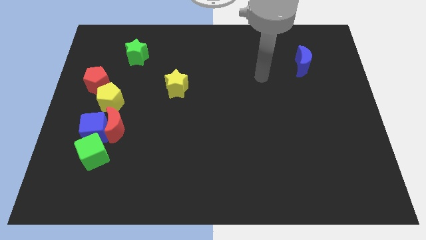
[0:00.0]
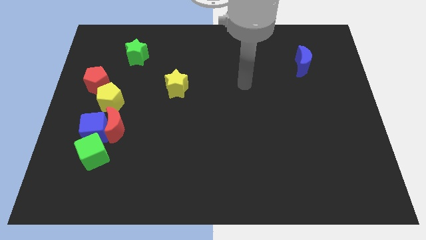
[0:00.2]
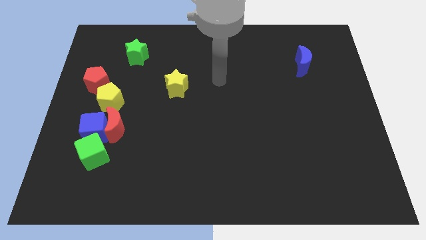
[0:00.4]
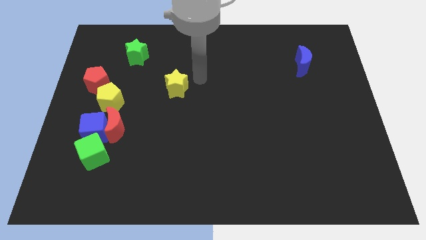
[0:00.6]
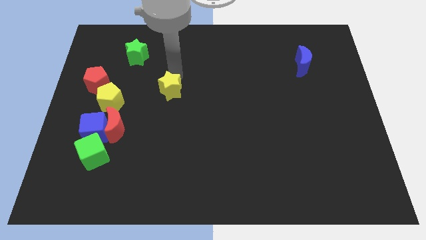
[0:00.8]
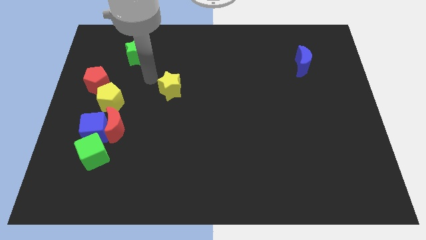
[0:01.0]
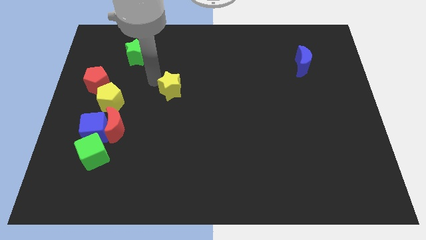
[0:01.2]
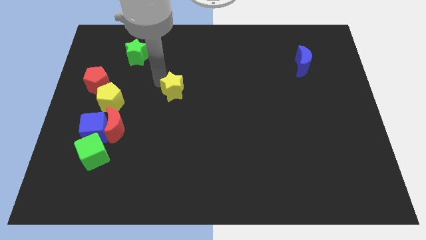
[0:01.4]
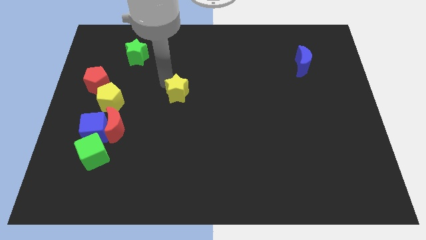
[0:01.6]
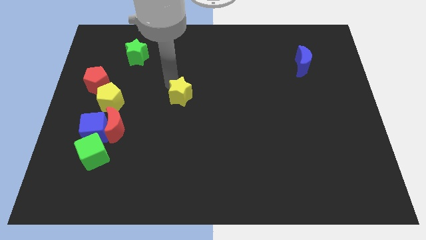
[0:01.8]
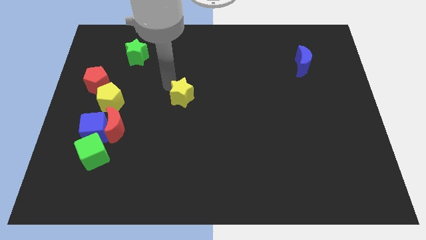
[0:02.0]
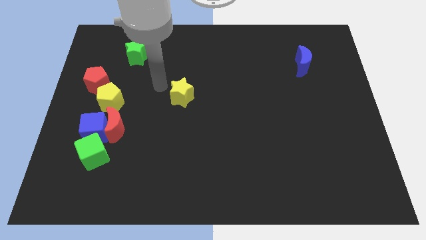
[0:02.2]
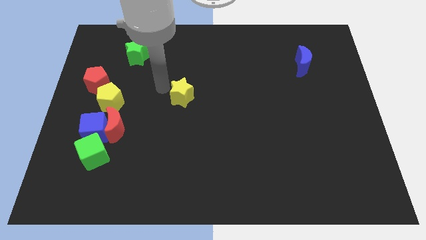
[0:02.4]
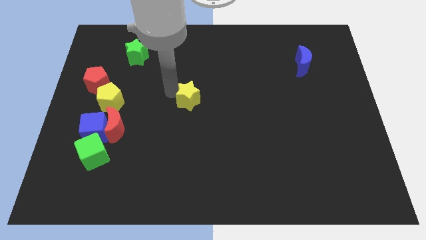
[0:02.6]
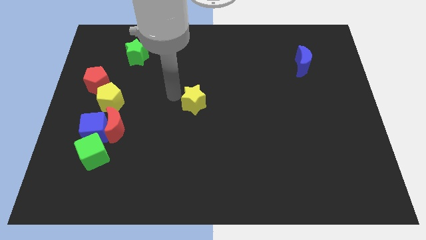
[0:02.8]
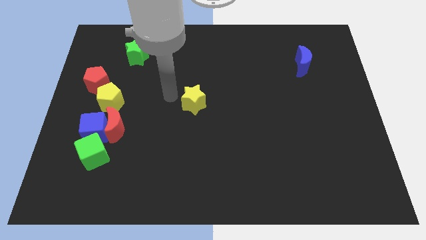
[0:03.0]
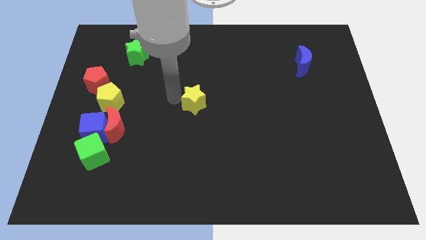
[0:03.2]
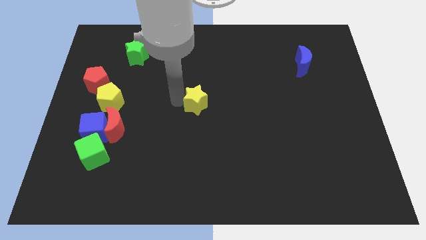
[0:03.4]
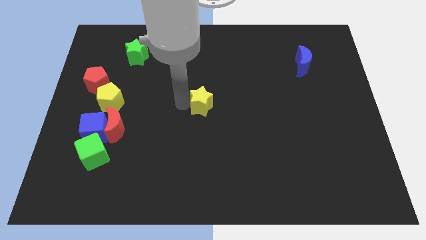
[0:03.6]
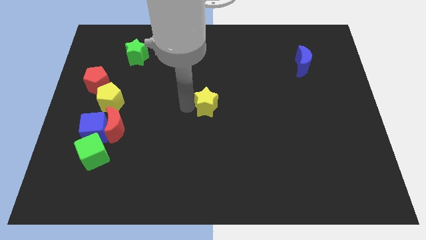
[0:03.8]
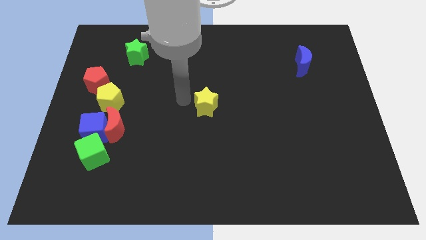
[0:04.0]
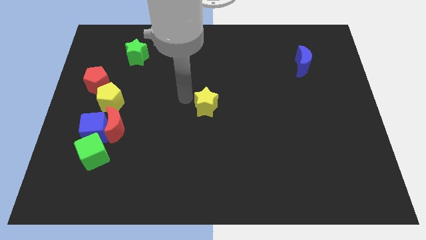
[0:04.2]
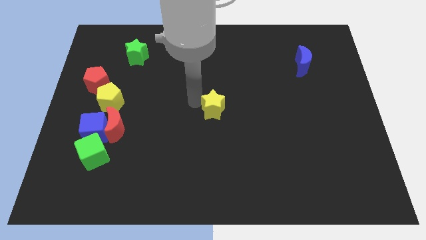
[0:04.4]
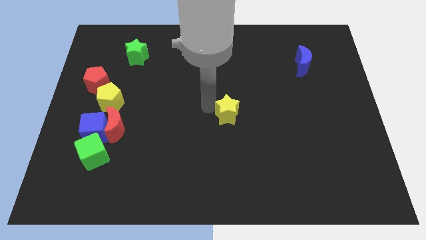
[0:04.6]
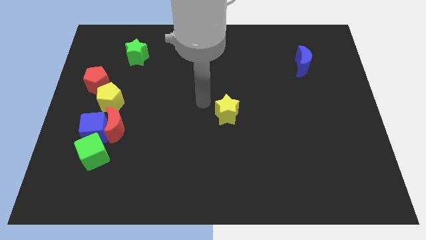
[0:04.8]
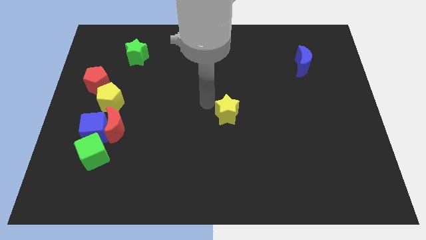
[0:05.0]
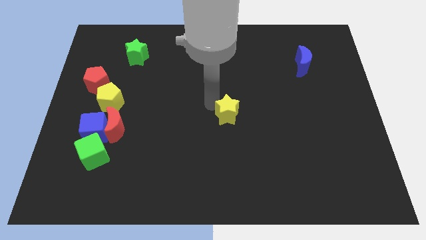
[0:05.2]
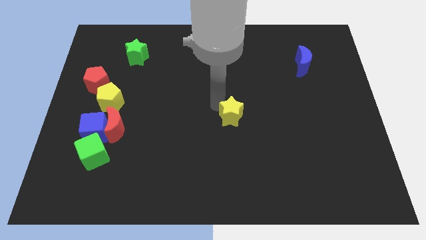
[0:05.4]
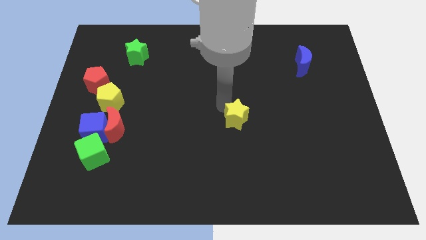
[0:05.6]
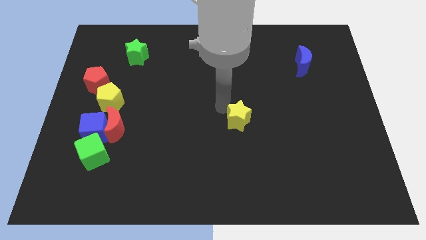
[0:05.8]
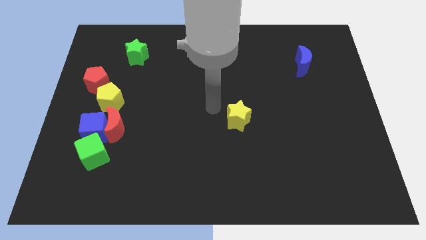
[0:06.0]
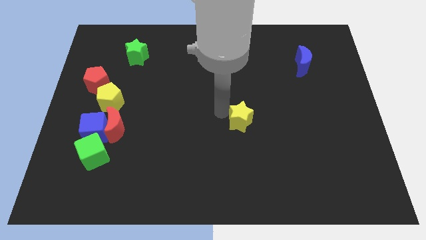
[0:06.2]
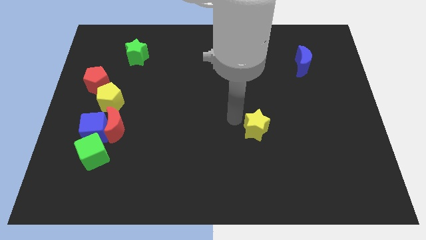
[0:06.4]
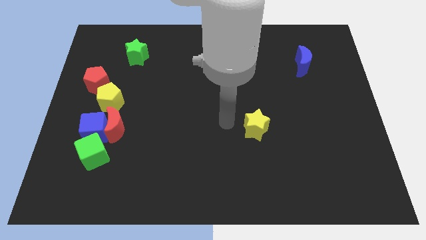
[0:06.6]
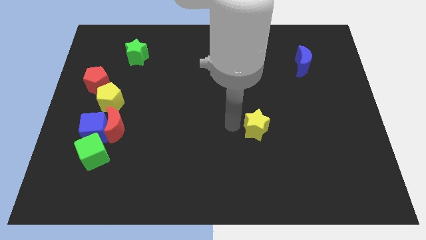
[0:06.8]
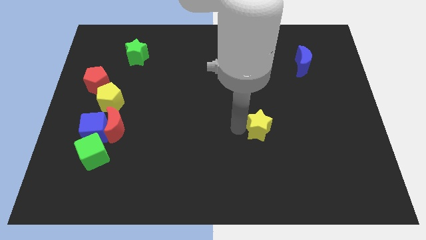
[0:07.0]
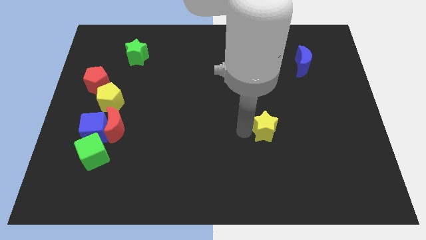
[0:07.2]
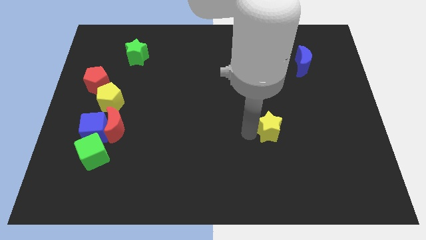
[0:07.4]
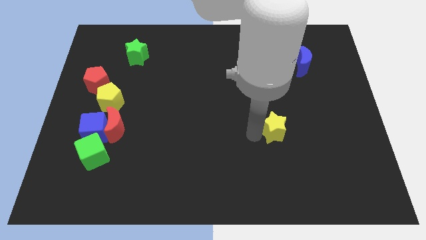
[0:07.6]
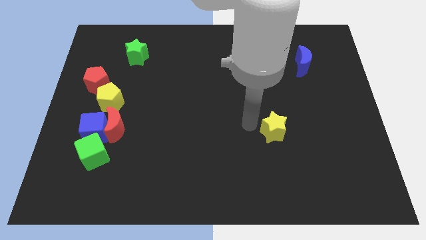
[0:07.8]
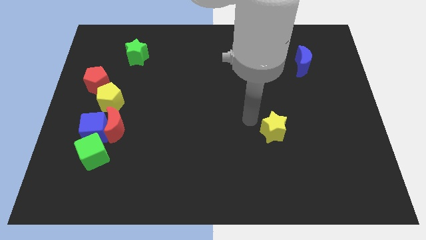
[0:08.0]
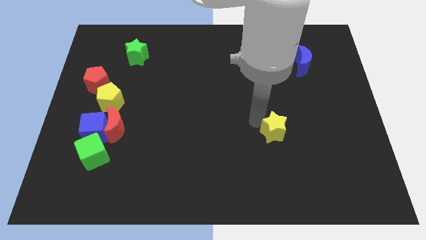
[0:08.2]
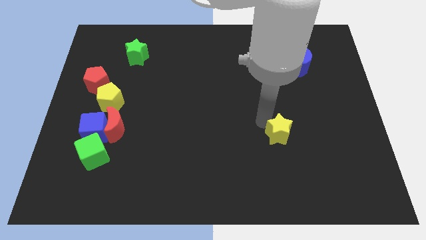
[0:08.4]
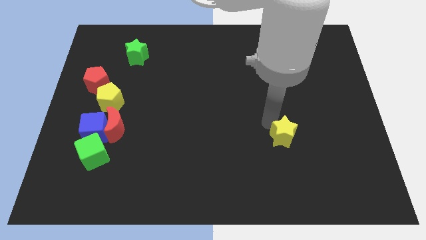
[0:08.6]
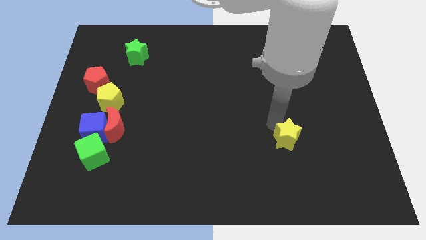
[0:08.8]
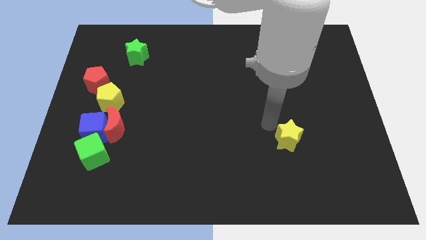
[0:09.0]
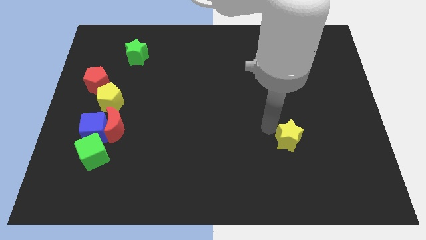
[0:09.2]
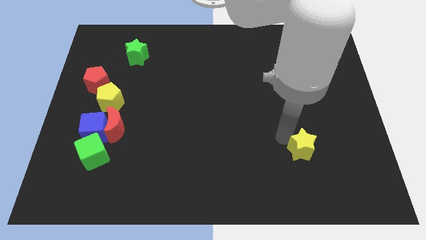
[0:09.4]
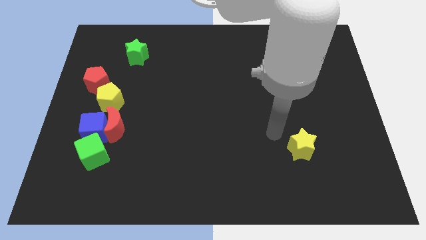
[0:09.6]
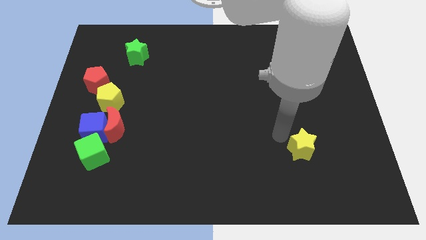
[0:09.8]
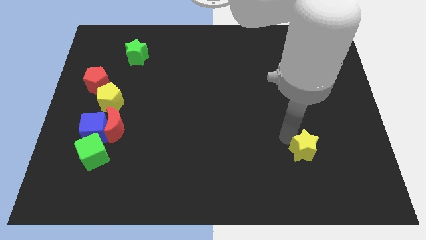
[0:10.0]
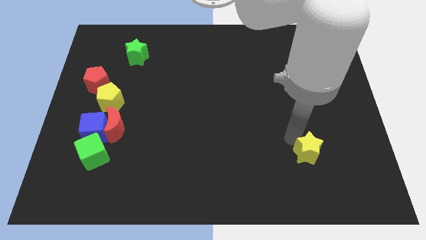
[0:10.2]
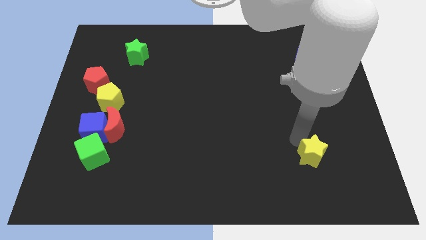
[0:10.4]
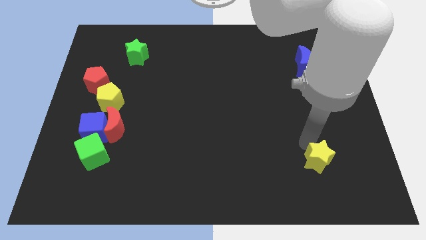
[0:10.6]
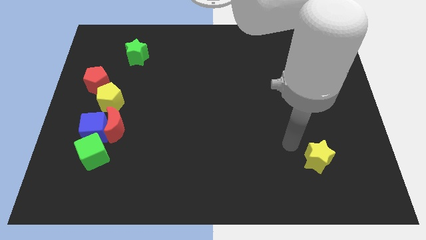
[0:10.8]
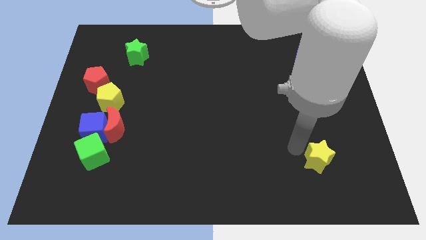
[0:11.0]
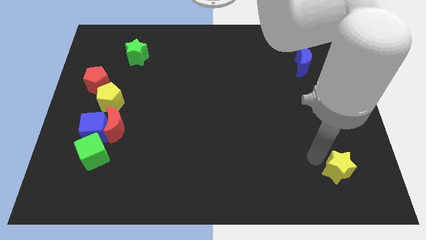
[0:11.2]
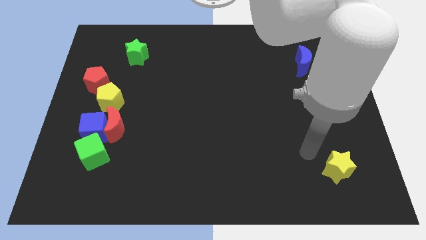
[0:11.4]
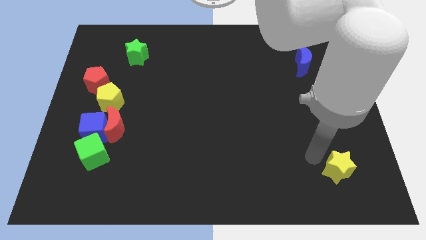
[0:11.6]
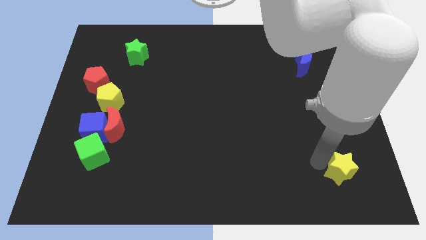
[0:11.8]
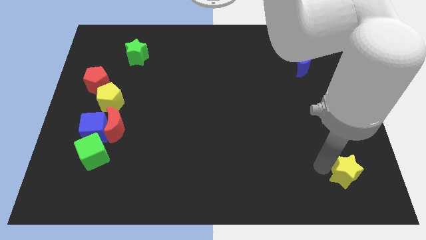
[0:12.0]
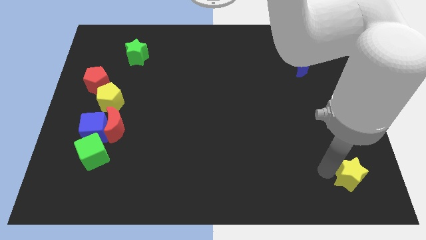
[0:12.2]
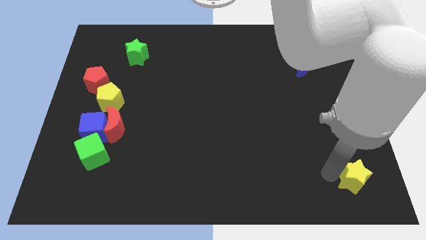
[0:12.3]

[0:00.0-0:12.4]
move the yellow star to the bottom right of the board
